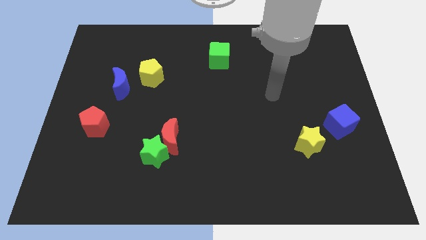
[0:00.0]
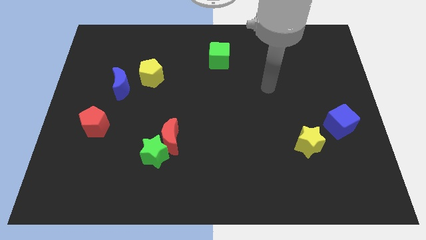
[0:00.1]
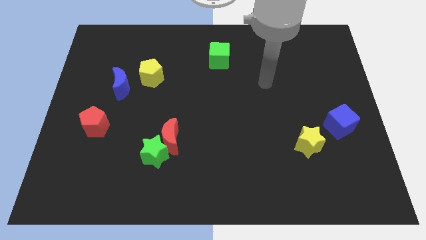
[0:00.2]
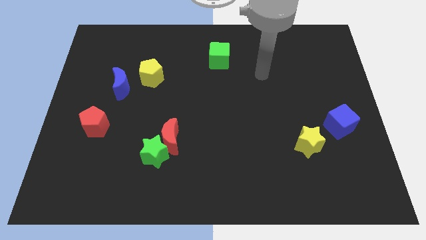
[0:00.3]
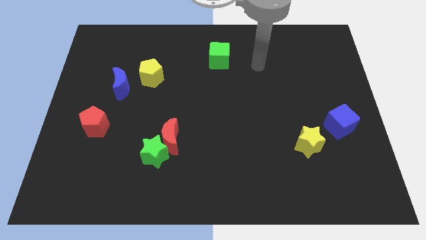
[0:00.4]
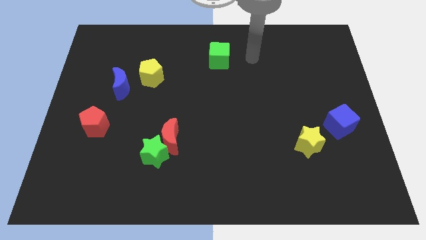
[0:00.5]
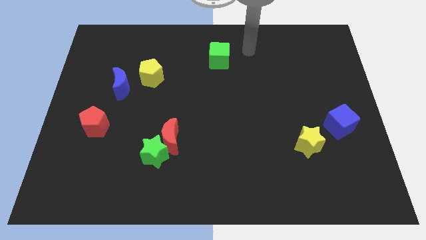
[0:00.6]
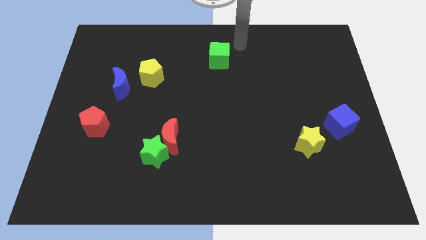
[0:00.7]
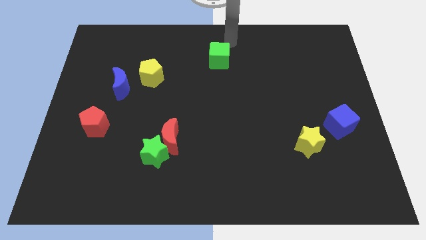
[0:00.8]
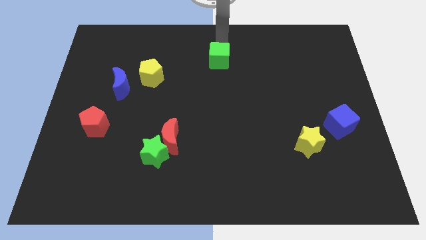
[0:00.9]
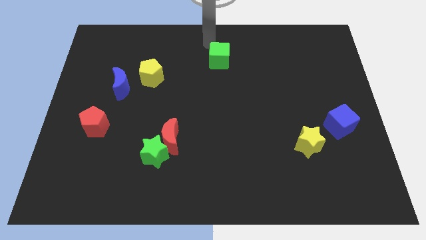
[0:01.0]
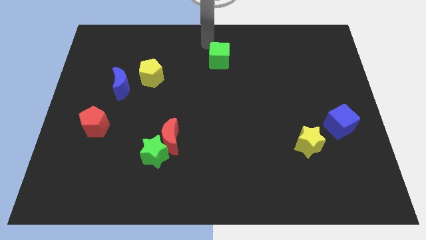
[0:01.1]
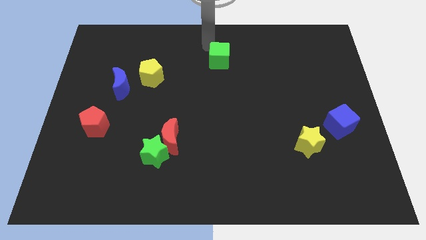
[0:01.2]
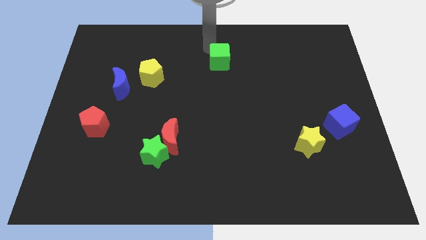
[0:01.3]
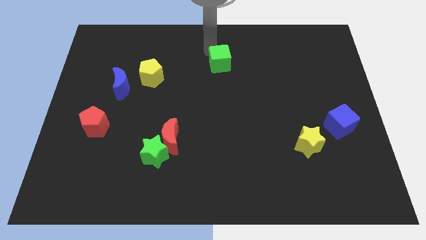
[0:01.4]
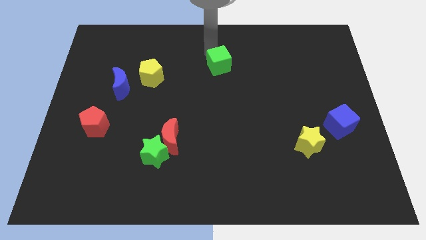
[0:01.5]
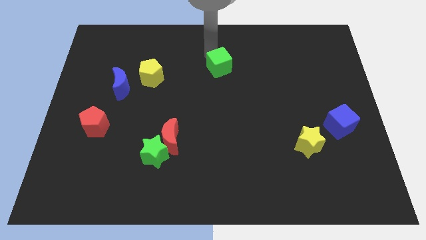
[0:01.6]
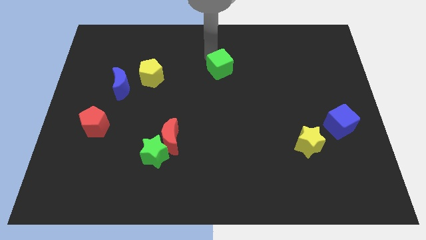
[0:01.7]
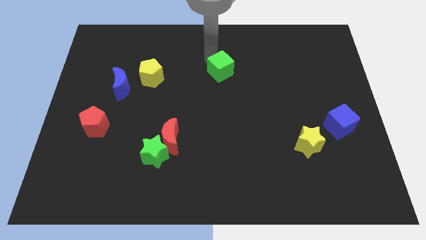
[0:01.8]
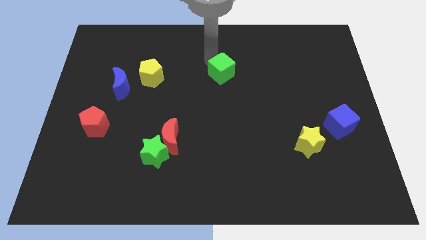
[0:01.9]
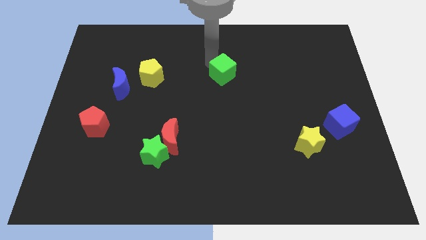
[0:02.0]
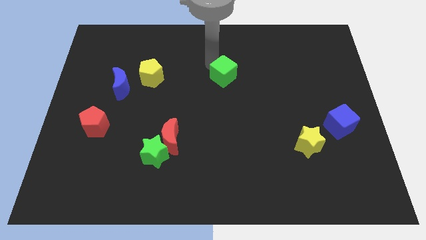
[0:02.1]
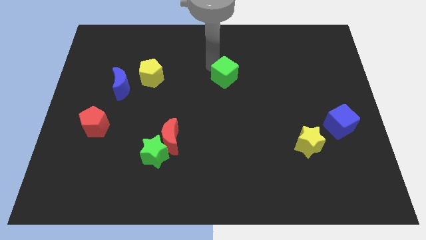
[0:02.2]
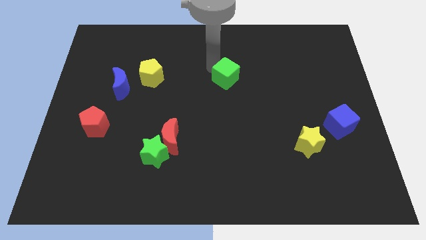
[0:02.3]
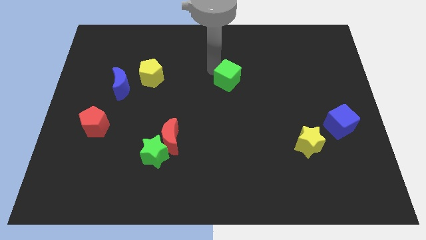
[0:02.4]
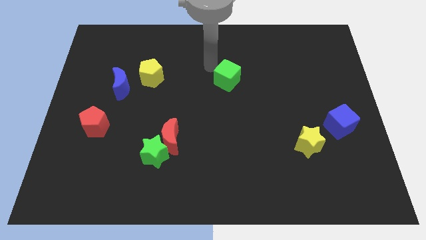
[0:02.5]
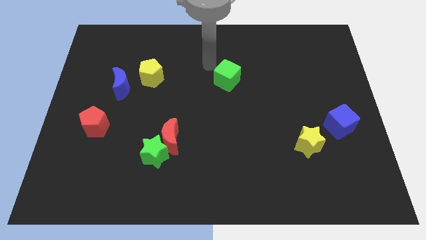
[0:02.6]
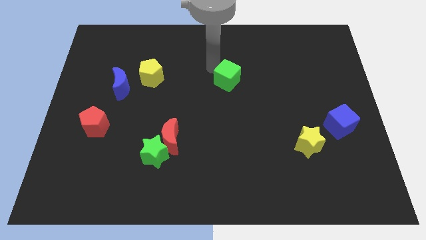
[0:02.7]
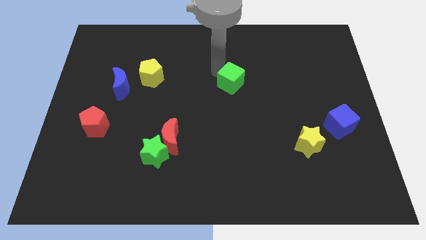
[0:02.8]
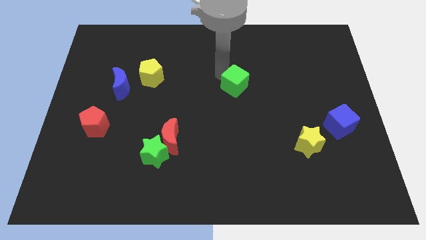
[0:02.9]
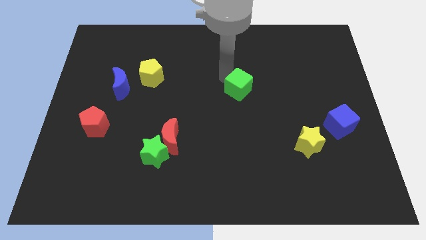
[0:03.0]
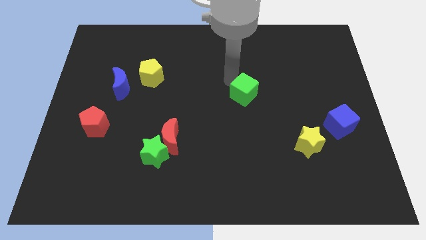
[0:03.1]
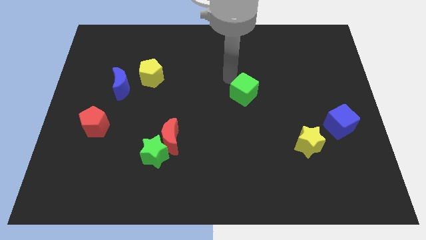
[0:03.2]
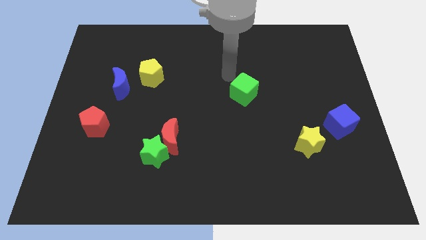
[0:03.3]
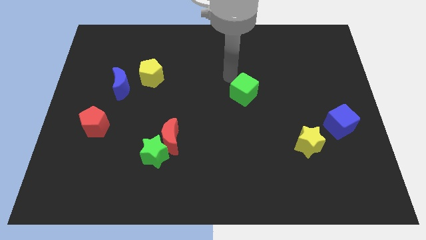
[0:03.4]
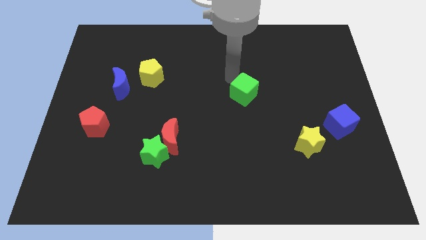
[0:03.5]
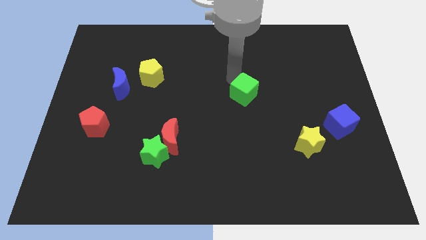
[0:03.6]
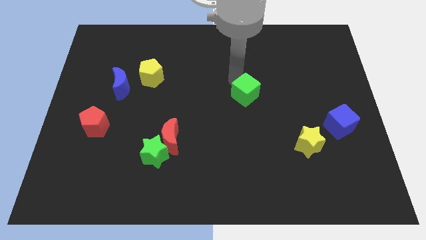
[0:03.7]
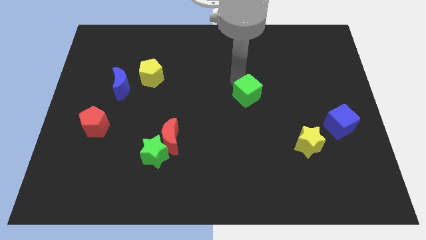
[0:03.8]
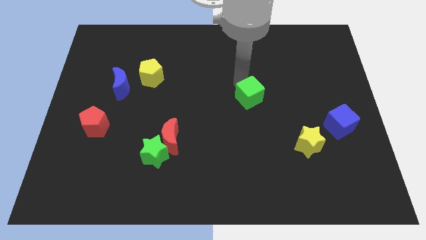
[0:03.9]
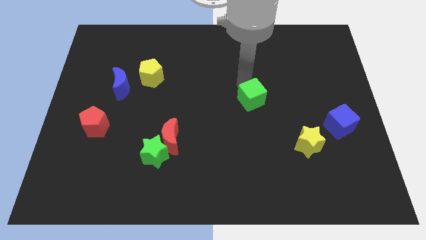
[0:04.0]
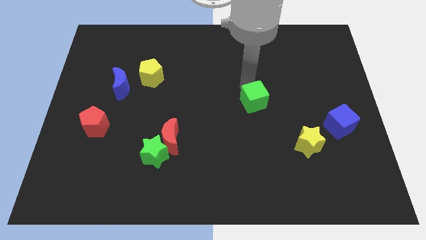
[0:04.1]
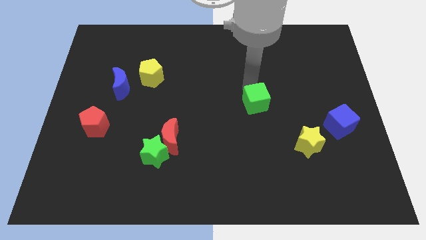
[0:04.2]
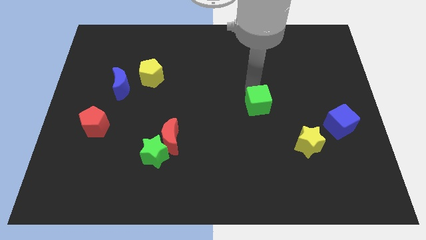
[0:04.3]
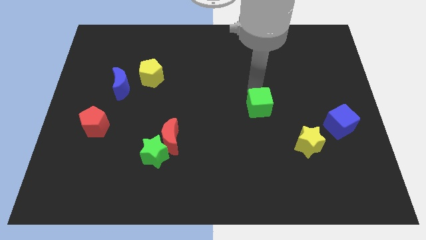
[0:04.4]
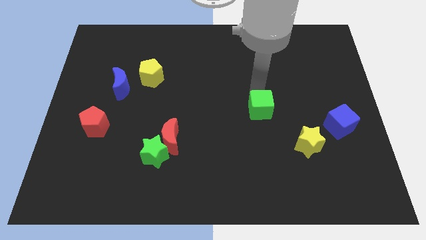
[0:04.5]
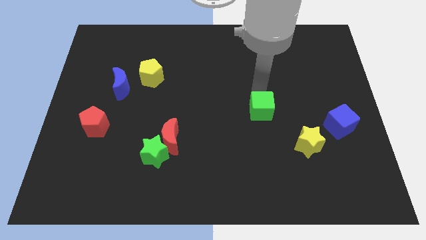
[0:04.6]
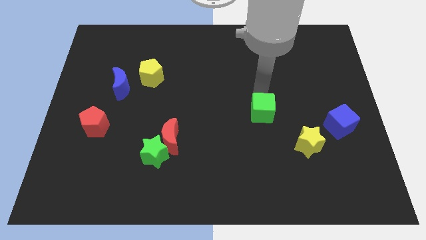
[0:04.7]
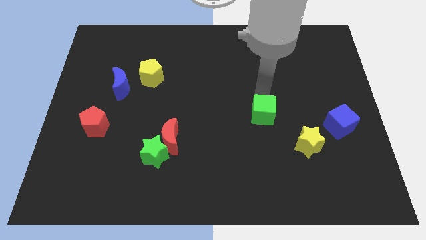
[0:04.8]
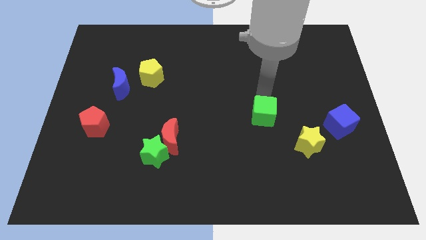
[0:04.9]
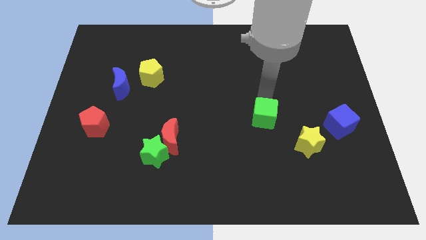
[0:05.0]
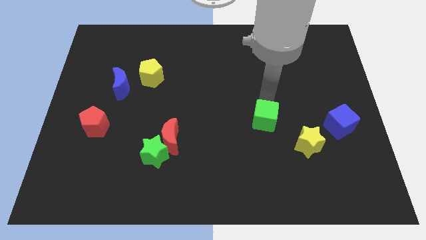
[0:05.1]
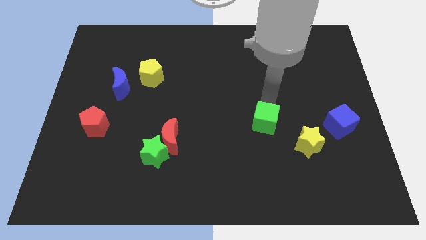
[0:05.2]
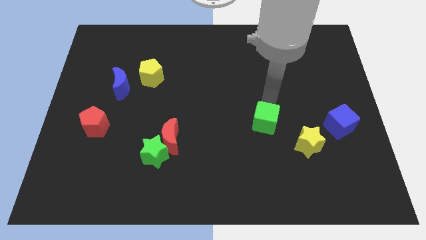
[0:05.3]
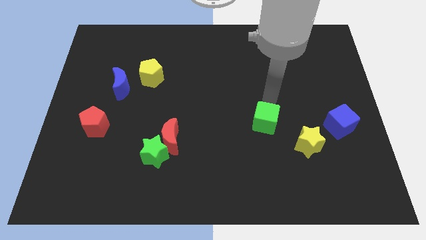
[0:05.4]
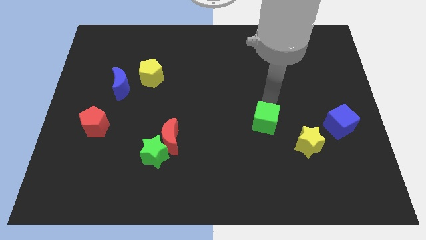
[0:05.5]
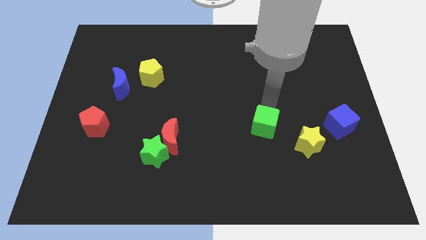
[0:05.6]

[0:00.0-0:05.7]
push the green cube just left of the yellow star

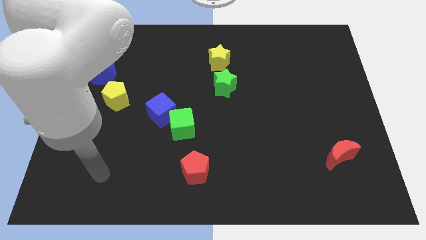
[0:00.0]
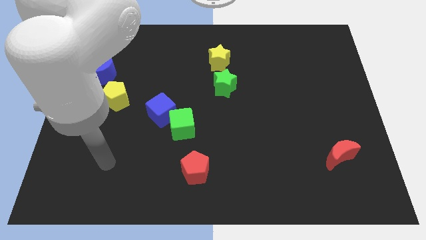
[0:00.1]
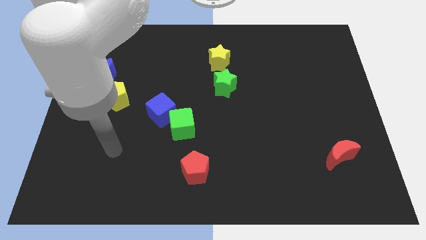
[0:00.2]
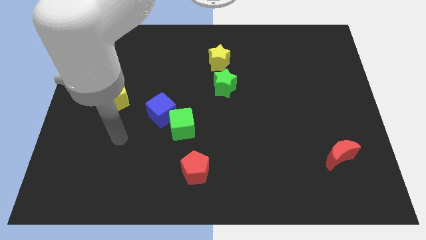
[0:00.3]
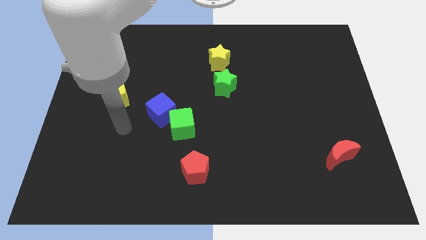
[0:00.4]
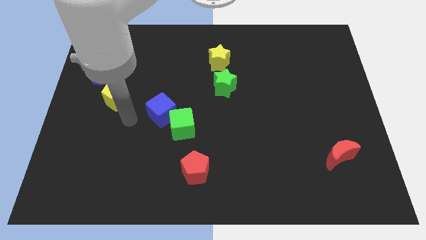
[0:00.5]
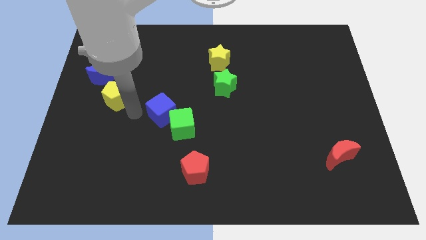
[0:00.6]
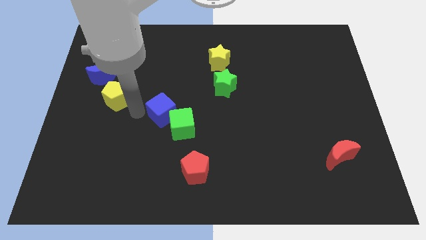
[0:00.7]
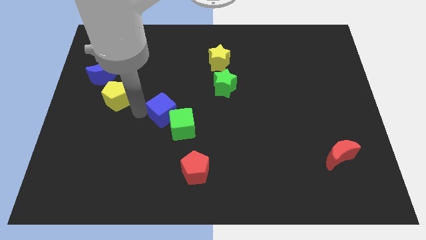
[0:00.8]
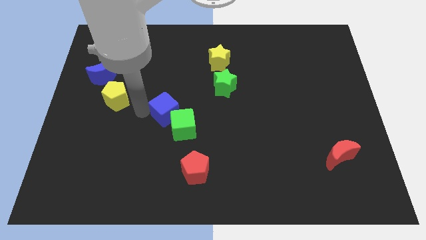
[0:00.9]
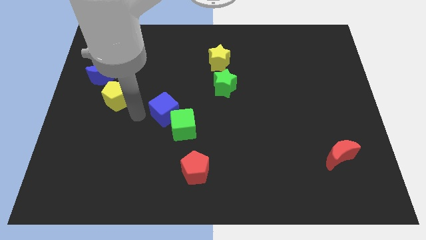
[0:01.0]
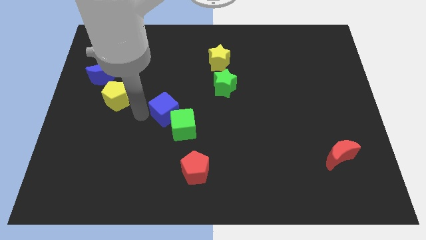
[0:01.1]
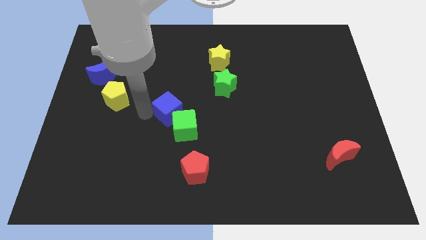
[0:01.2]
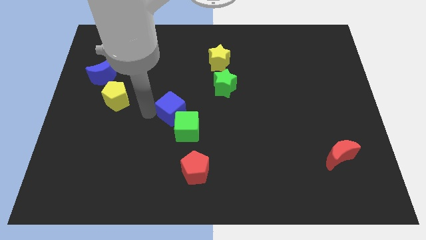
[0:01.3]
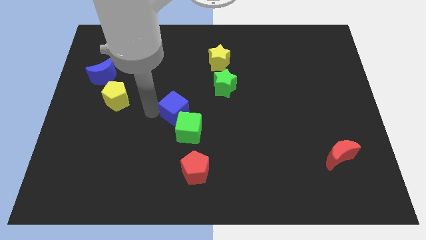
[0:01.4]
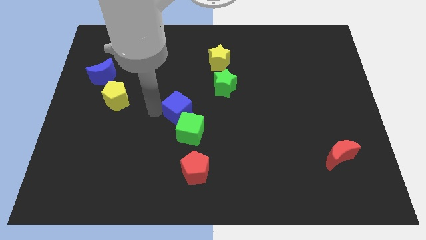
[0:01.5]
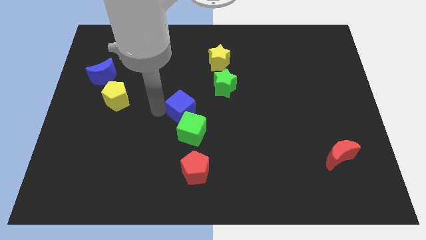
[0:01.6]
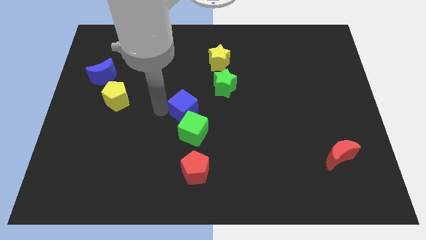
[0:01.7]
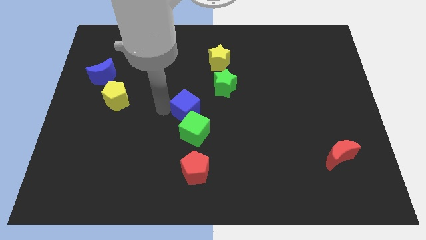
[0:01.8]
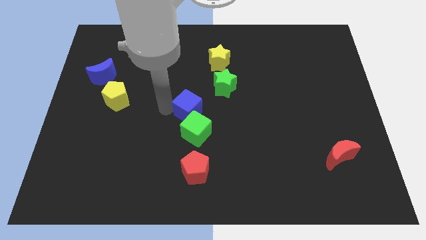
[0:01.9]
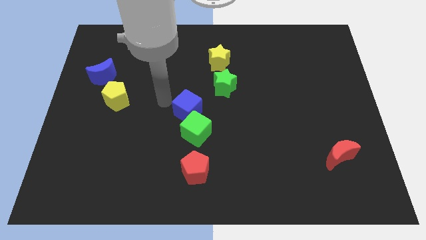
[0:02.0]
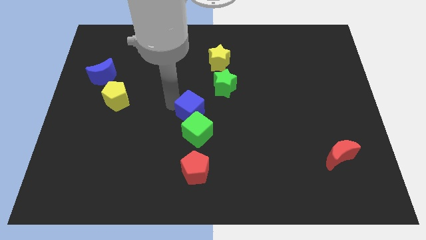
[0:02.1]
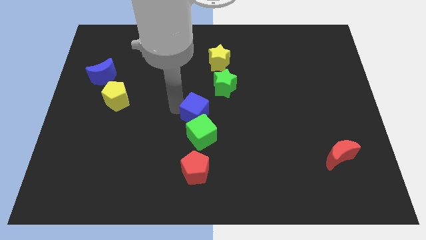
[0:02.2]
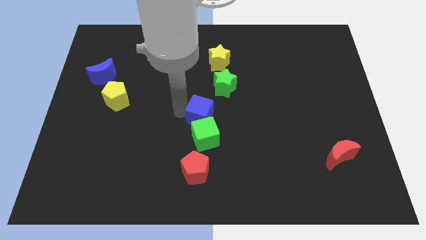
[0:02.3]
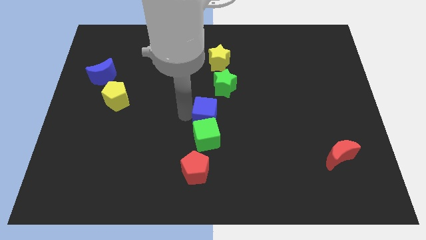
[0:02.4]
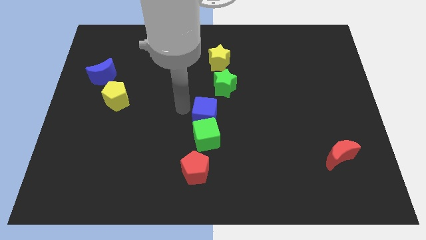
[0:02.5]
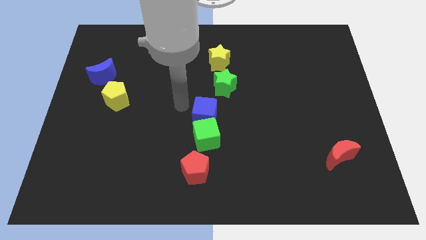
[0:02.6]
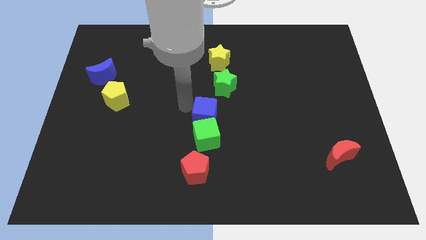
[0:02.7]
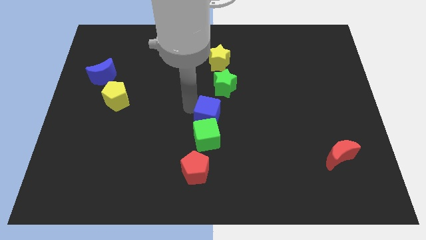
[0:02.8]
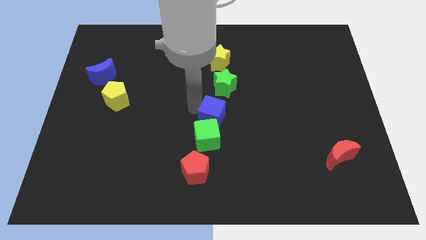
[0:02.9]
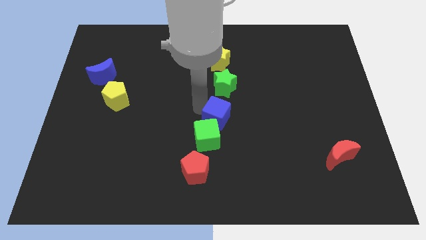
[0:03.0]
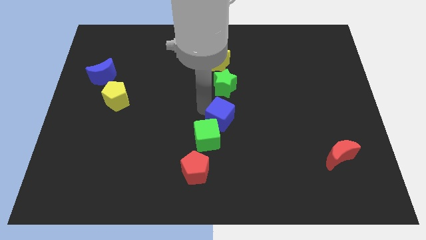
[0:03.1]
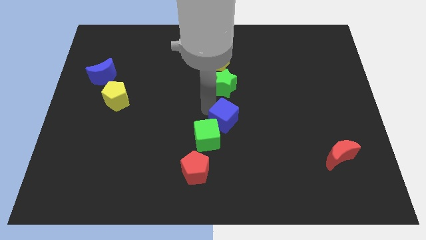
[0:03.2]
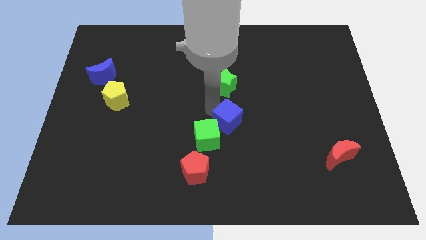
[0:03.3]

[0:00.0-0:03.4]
push the blue cube just right of the green cube
